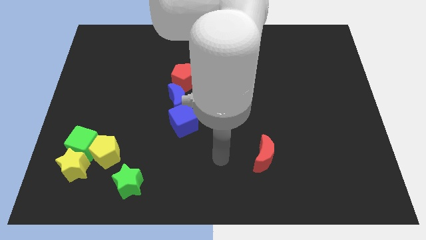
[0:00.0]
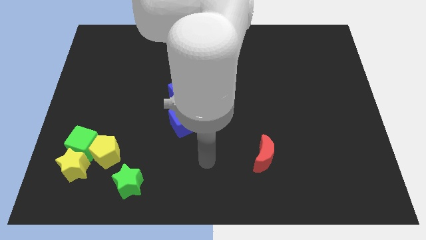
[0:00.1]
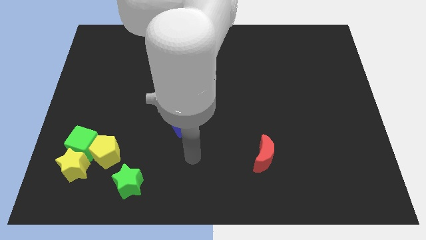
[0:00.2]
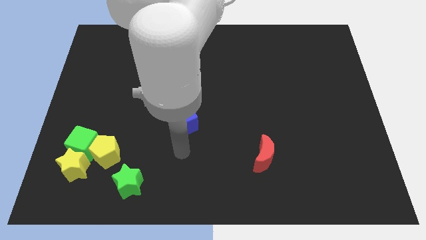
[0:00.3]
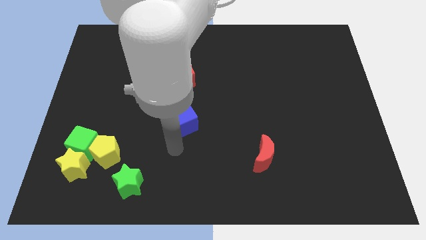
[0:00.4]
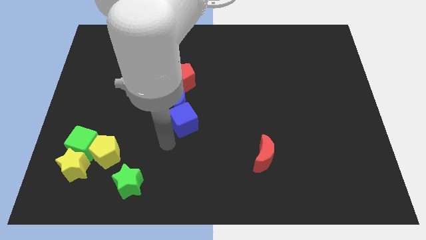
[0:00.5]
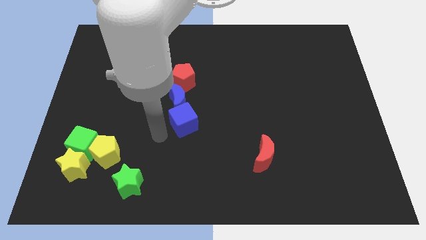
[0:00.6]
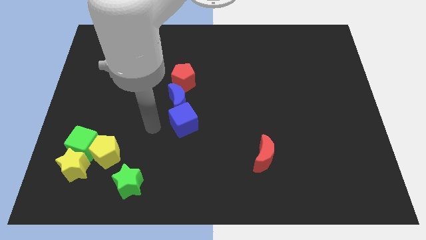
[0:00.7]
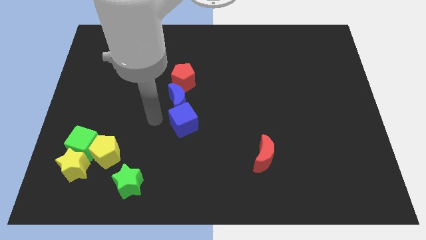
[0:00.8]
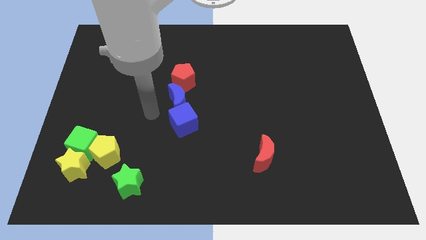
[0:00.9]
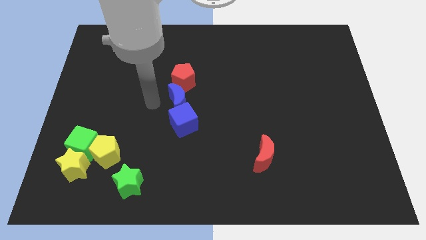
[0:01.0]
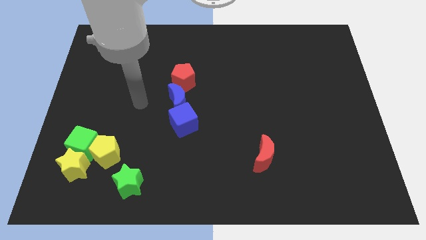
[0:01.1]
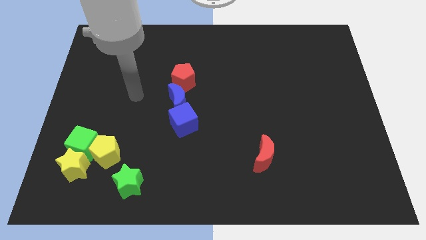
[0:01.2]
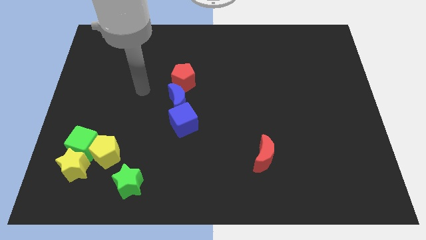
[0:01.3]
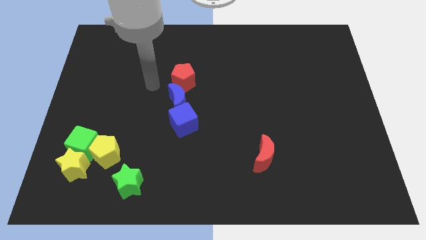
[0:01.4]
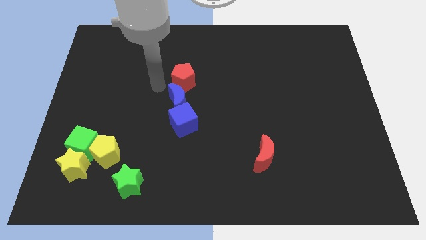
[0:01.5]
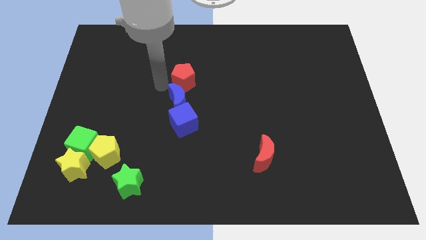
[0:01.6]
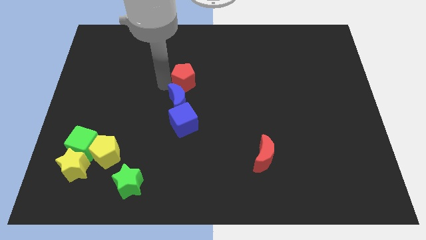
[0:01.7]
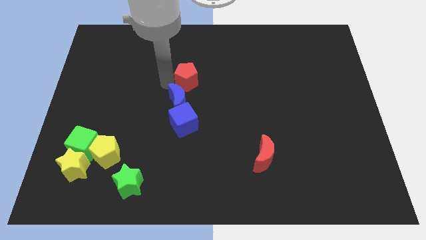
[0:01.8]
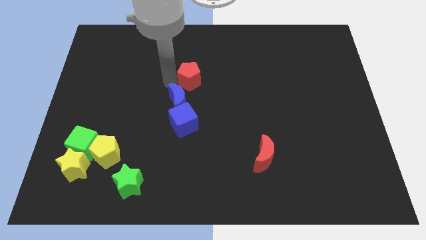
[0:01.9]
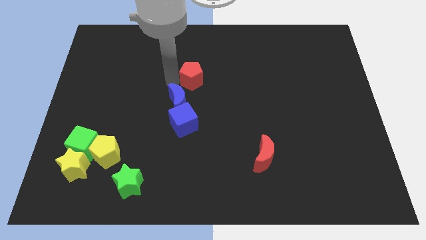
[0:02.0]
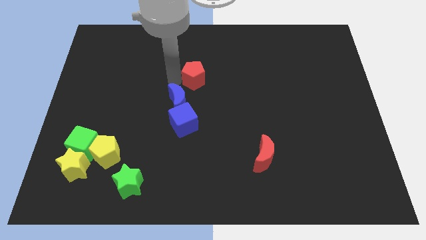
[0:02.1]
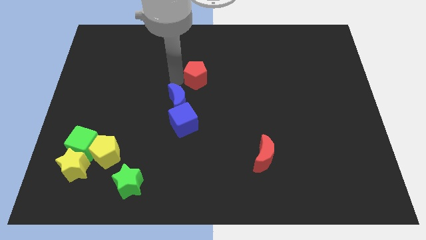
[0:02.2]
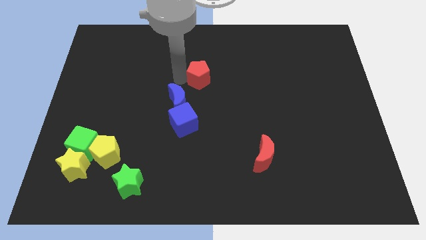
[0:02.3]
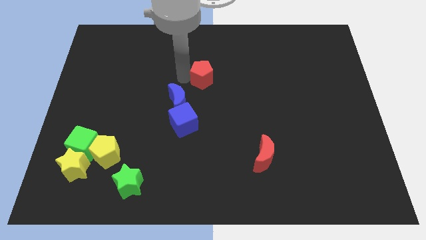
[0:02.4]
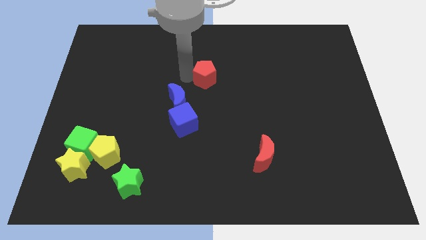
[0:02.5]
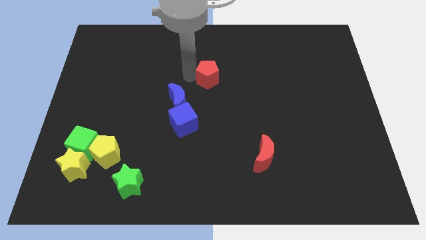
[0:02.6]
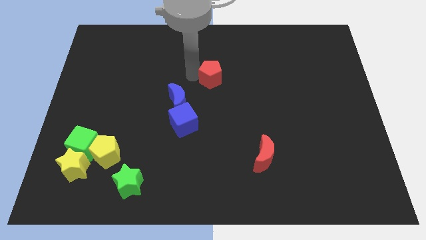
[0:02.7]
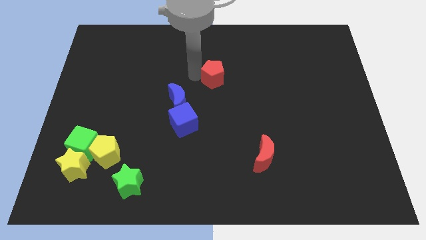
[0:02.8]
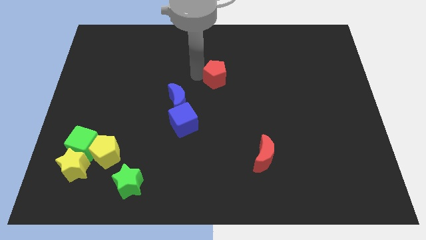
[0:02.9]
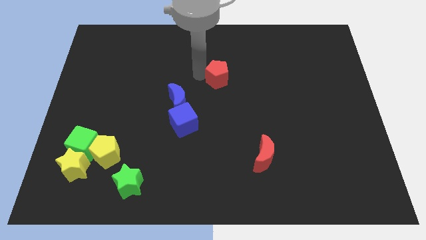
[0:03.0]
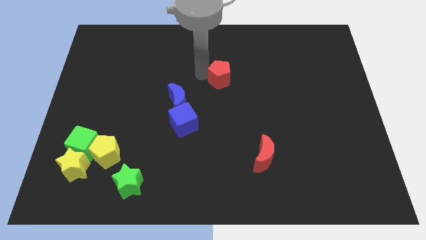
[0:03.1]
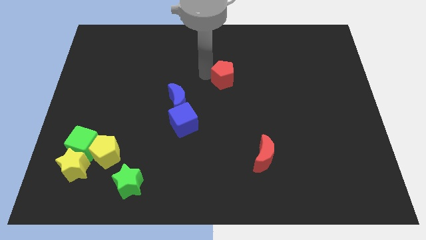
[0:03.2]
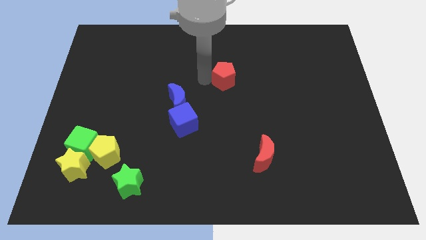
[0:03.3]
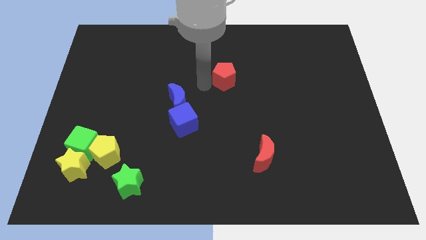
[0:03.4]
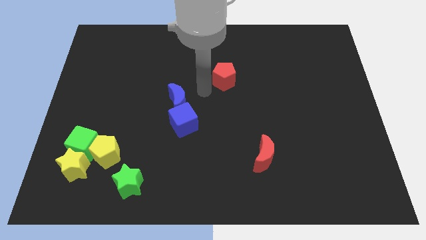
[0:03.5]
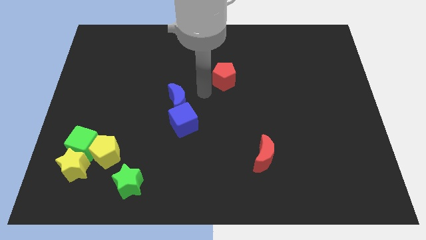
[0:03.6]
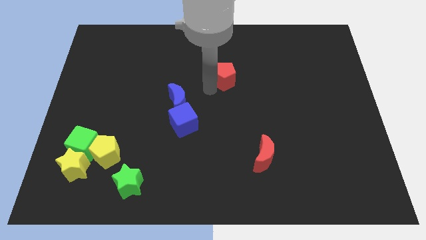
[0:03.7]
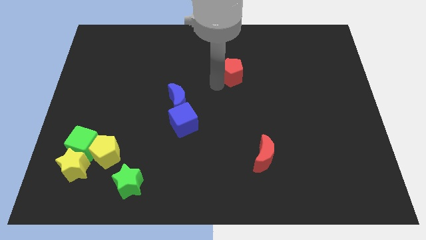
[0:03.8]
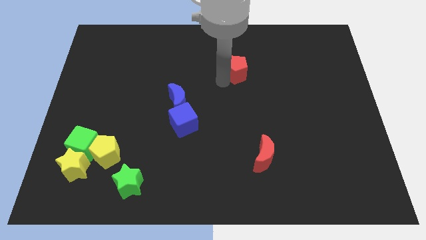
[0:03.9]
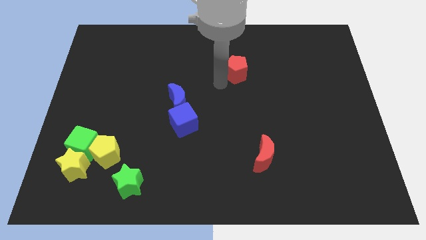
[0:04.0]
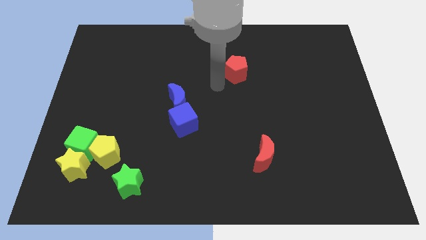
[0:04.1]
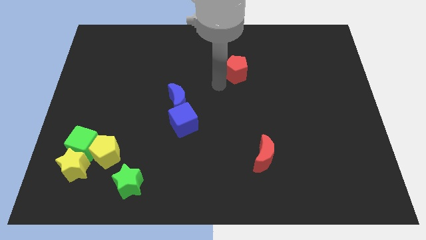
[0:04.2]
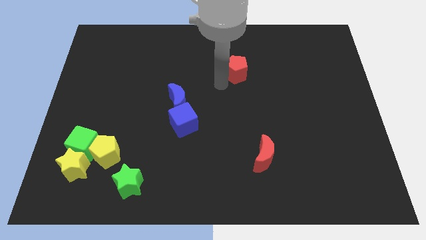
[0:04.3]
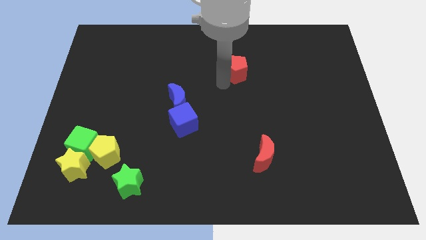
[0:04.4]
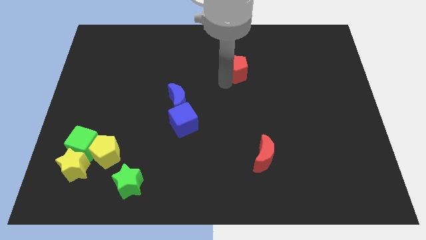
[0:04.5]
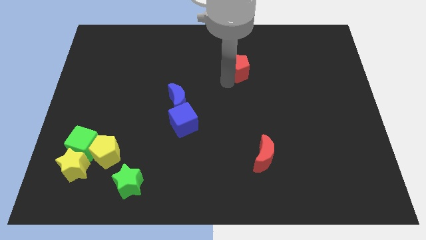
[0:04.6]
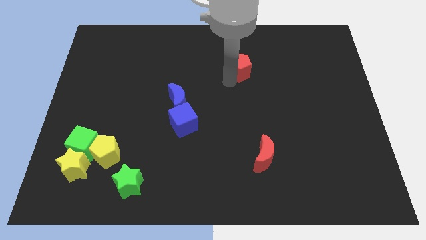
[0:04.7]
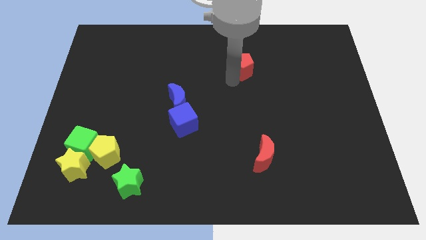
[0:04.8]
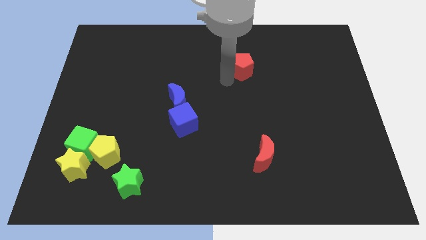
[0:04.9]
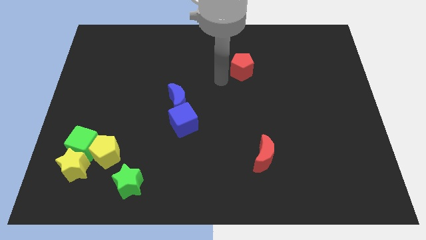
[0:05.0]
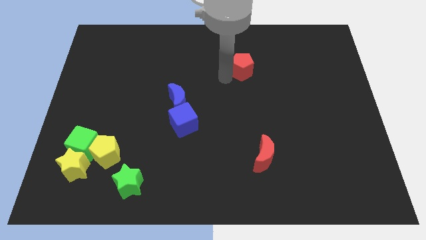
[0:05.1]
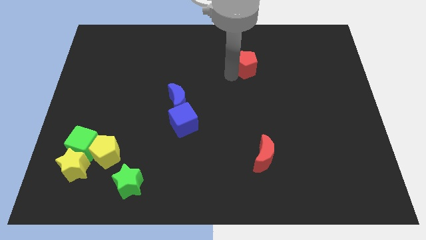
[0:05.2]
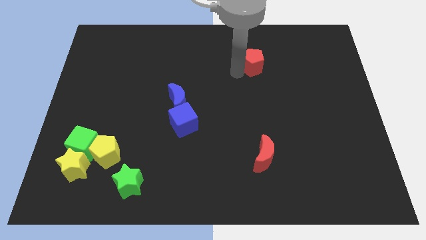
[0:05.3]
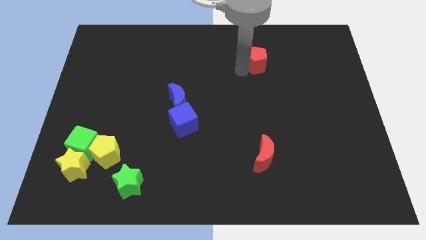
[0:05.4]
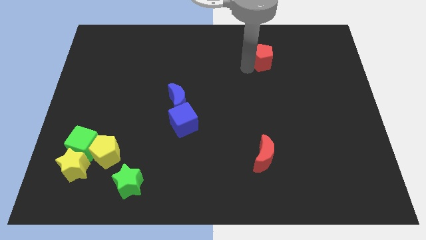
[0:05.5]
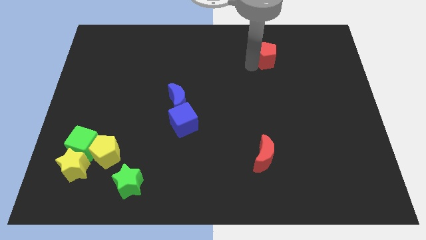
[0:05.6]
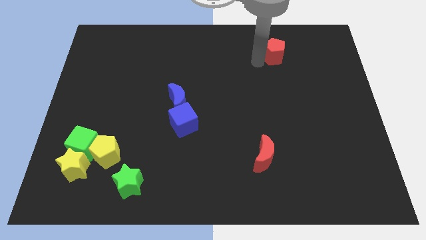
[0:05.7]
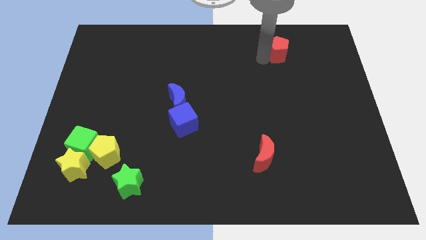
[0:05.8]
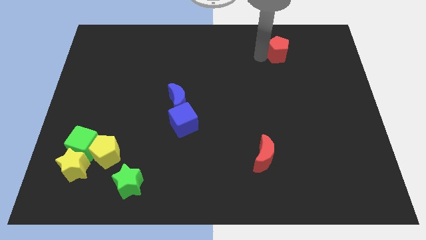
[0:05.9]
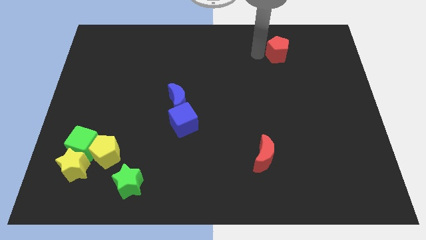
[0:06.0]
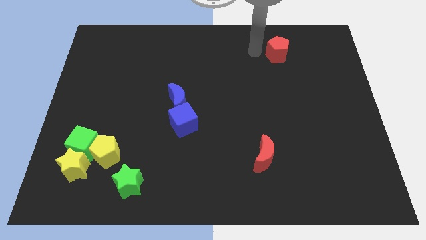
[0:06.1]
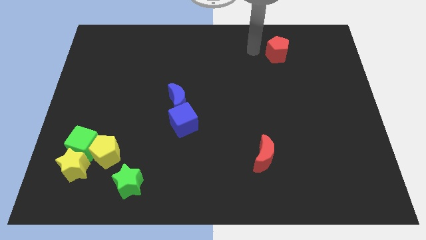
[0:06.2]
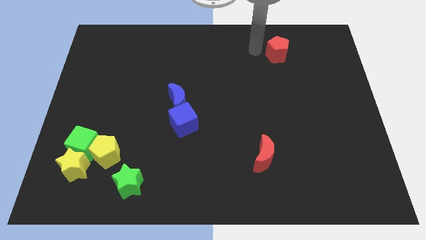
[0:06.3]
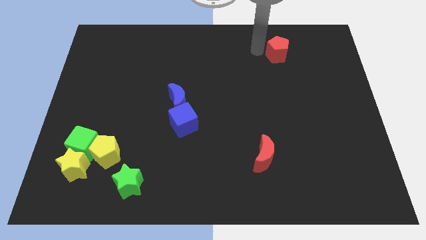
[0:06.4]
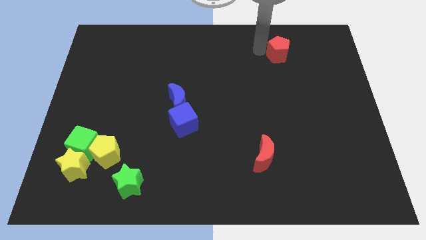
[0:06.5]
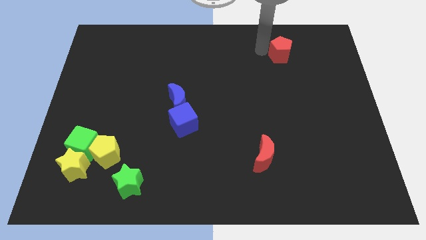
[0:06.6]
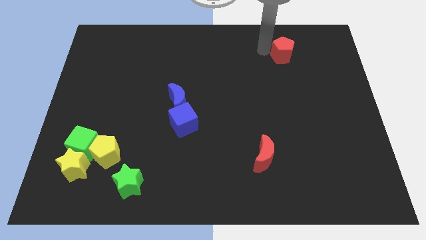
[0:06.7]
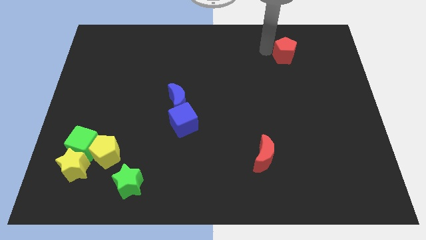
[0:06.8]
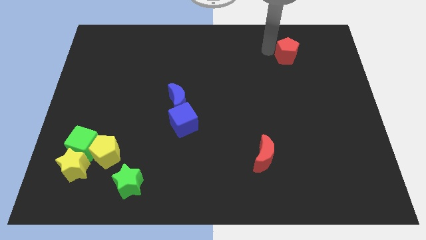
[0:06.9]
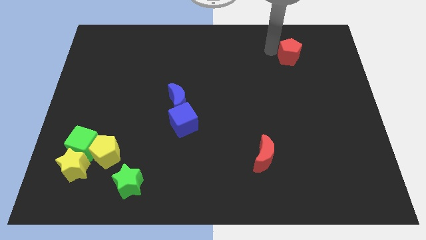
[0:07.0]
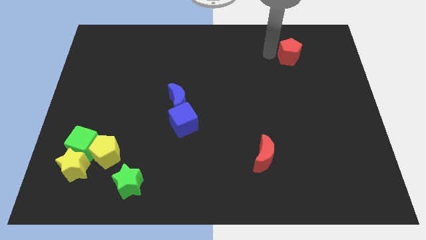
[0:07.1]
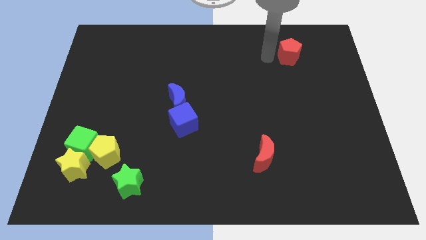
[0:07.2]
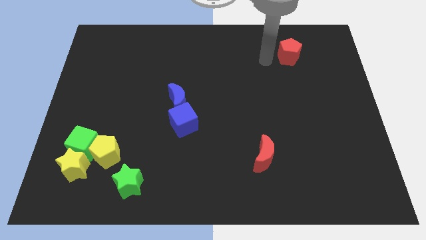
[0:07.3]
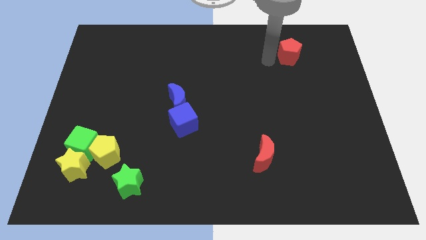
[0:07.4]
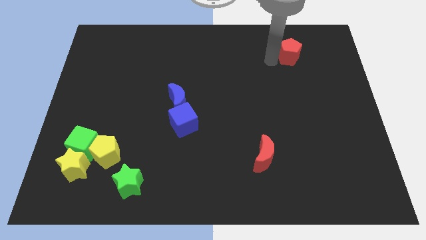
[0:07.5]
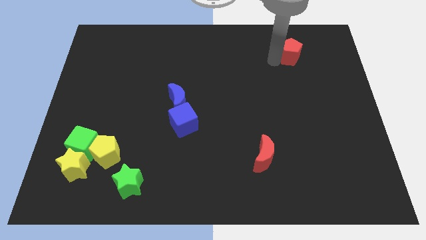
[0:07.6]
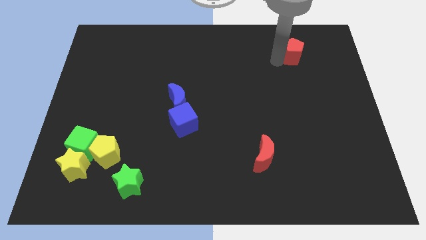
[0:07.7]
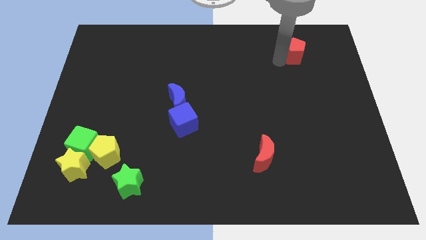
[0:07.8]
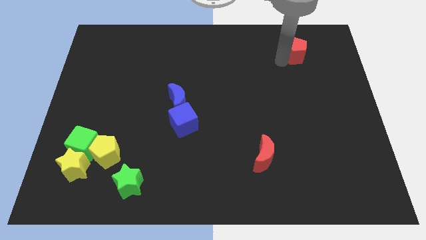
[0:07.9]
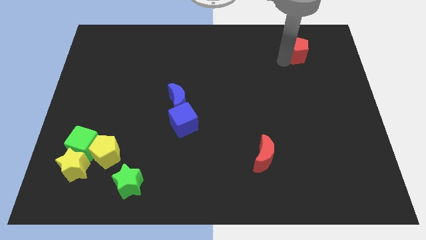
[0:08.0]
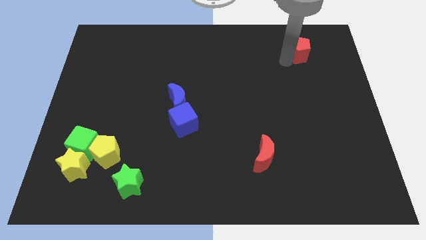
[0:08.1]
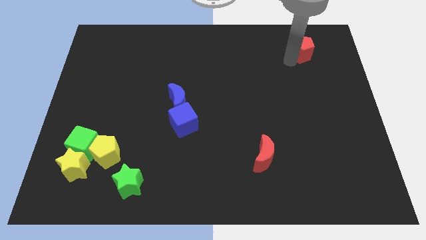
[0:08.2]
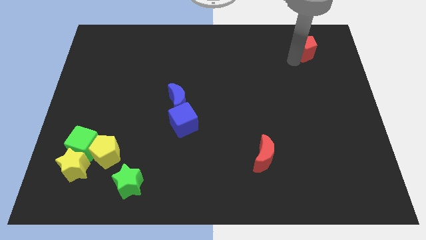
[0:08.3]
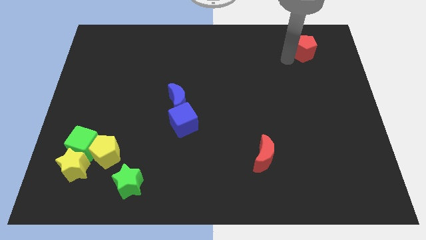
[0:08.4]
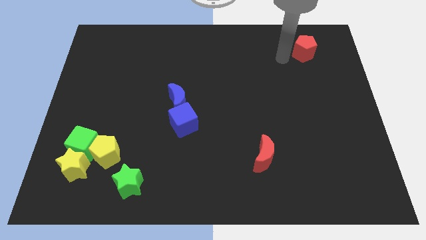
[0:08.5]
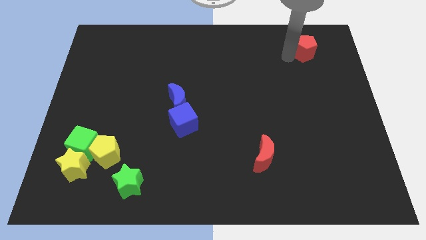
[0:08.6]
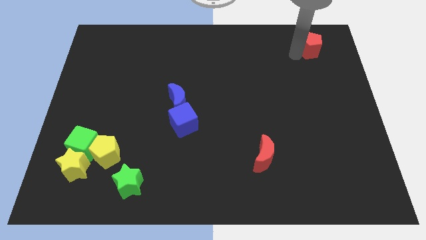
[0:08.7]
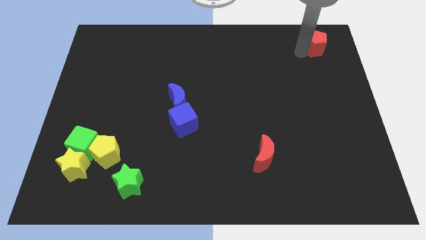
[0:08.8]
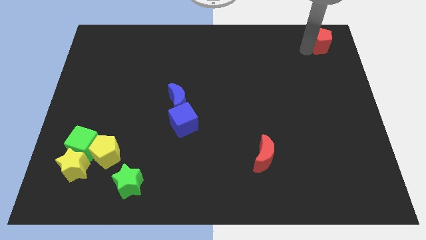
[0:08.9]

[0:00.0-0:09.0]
slide the red pentagon to the upper right corner
